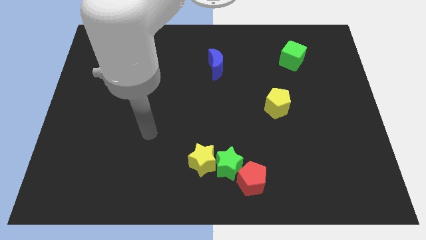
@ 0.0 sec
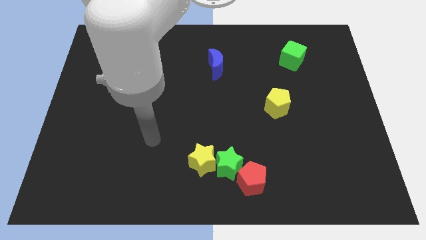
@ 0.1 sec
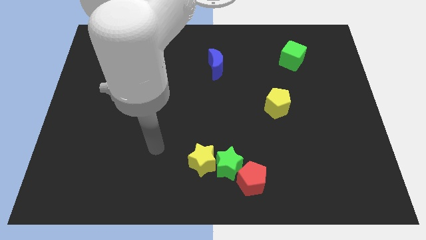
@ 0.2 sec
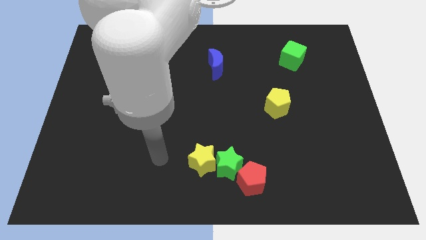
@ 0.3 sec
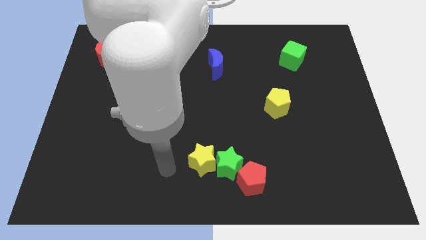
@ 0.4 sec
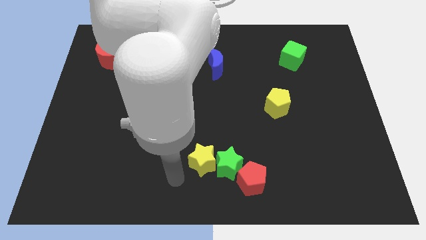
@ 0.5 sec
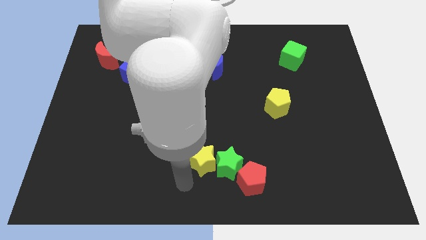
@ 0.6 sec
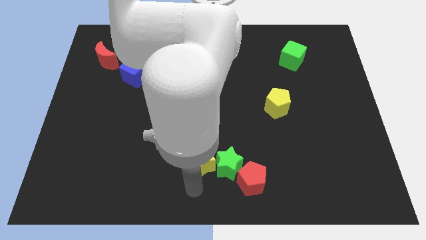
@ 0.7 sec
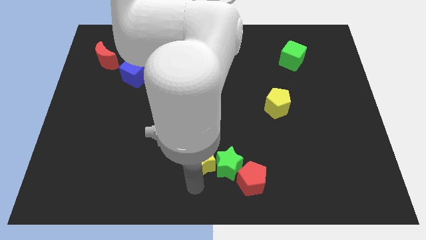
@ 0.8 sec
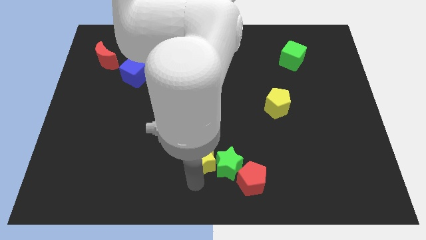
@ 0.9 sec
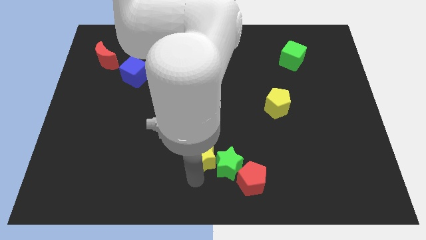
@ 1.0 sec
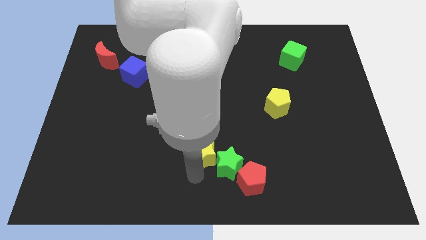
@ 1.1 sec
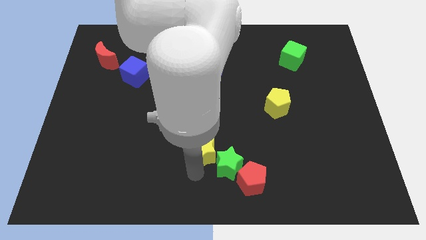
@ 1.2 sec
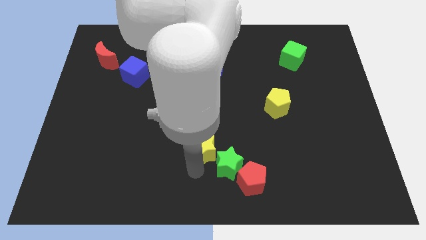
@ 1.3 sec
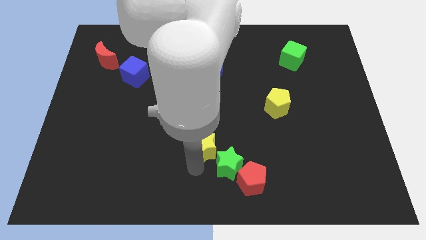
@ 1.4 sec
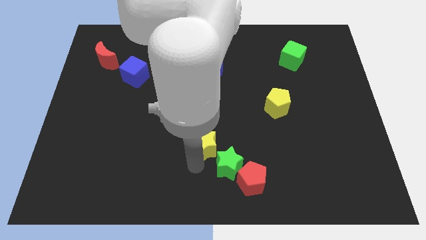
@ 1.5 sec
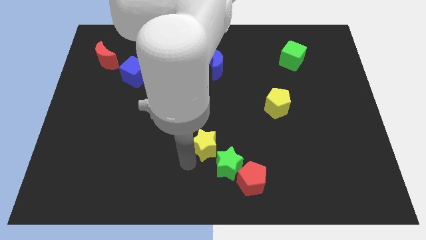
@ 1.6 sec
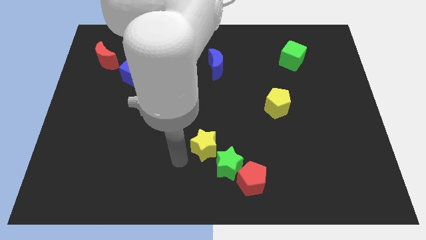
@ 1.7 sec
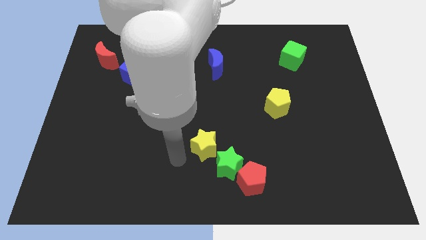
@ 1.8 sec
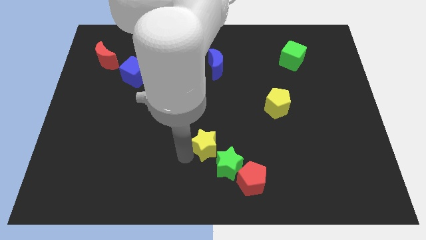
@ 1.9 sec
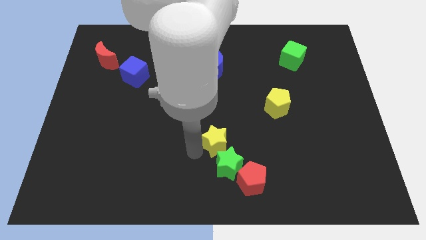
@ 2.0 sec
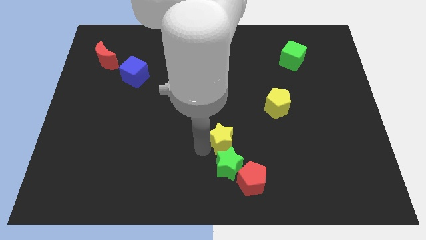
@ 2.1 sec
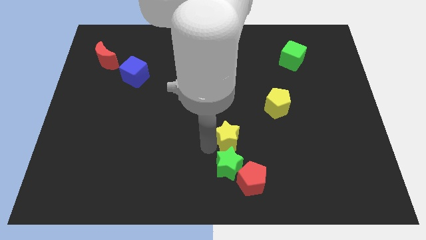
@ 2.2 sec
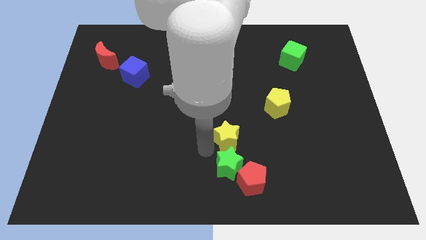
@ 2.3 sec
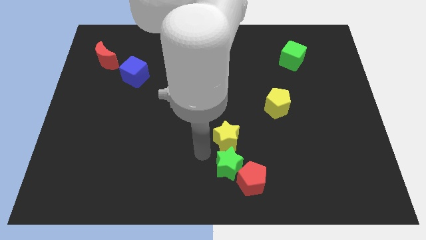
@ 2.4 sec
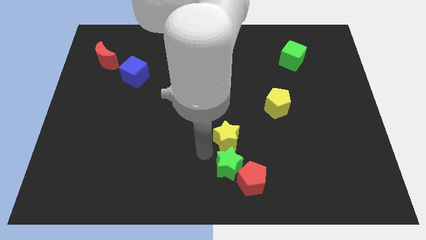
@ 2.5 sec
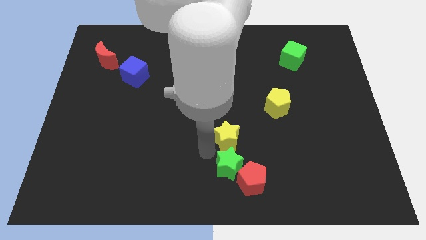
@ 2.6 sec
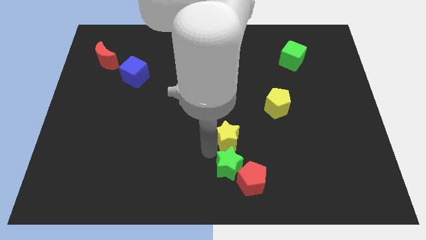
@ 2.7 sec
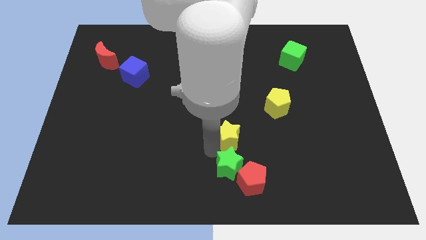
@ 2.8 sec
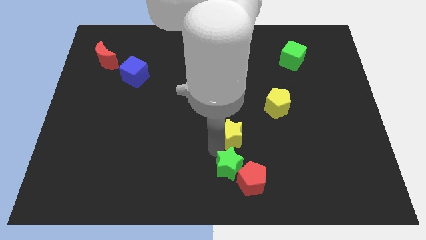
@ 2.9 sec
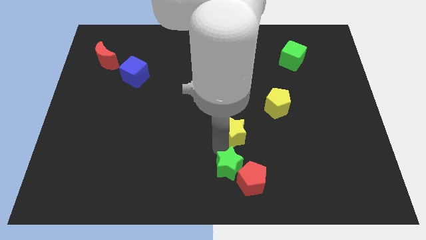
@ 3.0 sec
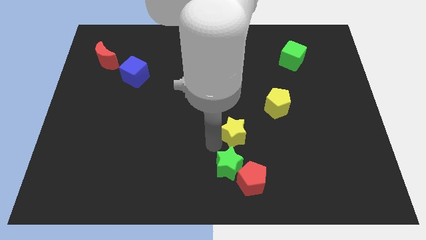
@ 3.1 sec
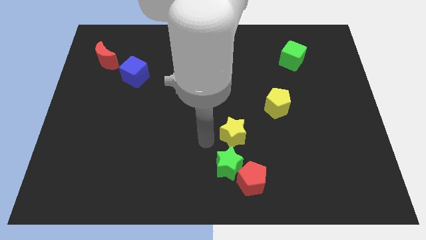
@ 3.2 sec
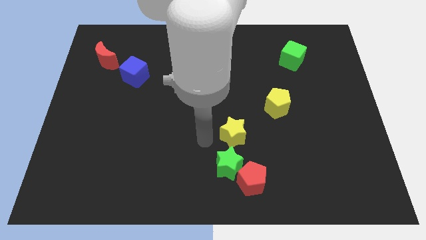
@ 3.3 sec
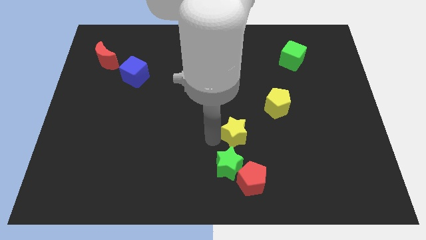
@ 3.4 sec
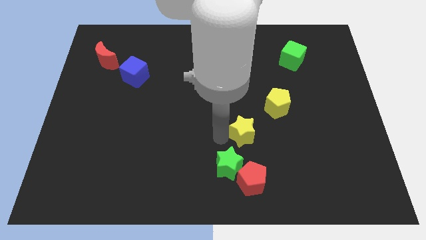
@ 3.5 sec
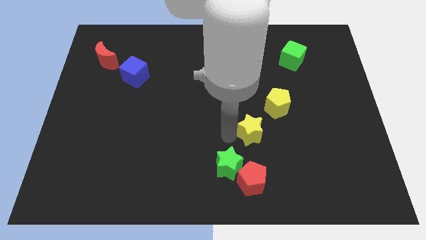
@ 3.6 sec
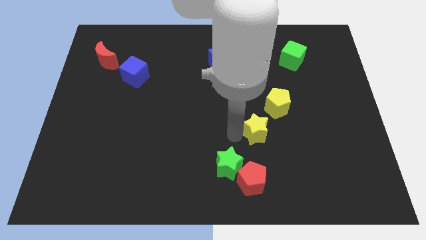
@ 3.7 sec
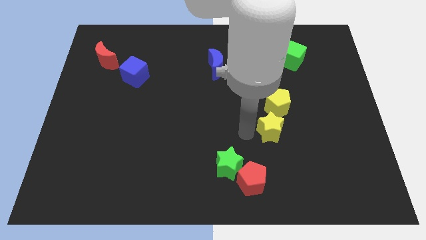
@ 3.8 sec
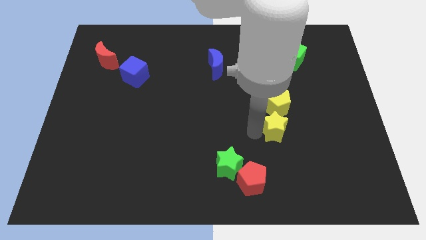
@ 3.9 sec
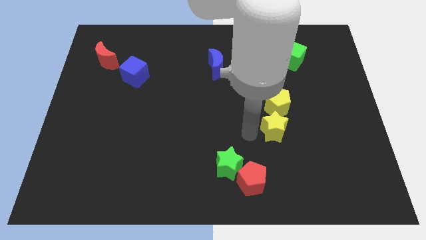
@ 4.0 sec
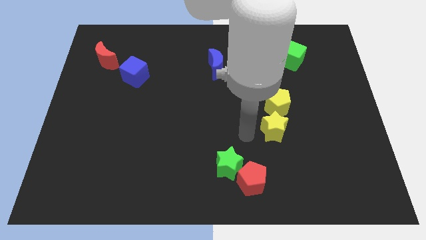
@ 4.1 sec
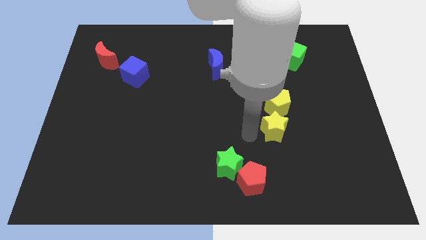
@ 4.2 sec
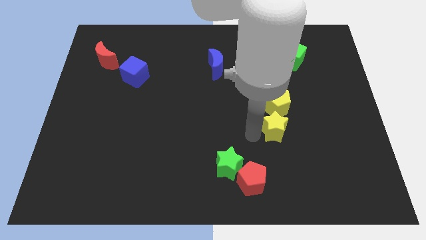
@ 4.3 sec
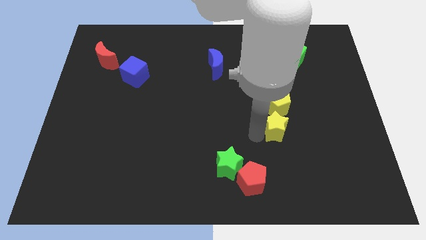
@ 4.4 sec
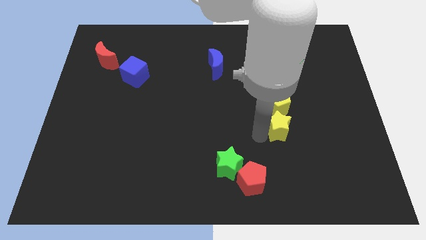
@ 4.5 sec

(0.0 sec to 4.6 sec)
move the yellow star to the bottom right of the yellow pentagon

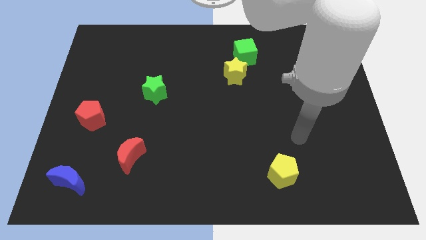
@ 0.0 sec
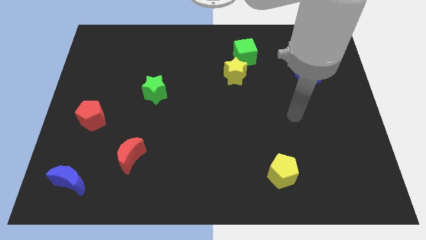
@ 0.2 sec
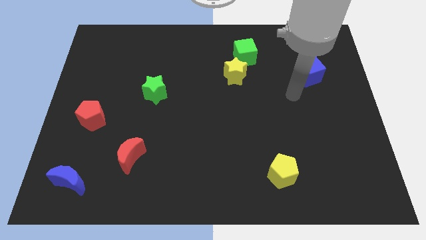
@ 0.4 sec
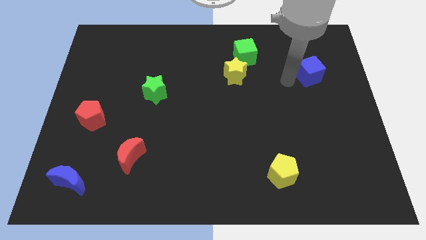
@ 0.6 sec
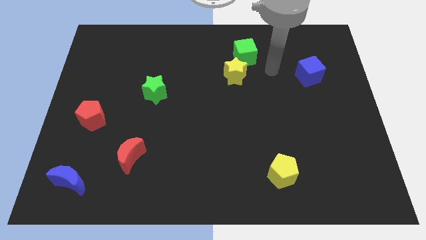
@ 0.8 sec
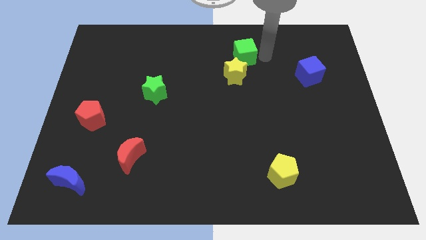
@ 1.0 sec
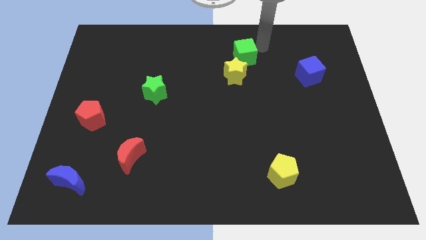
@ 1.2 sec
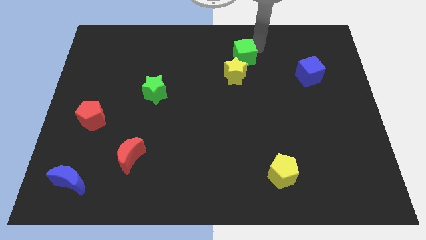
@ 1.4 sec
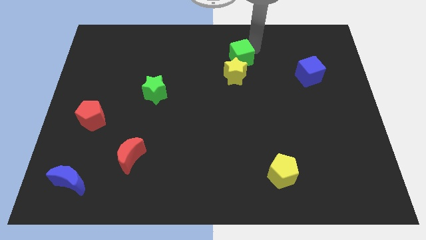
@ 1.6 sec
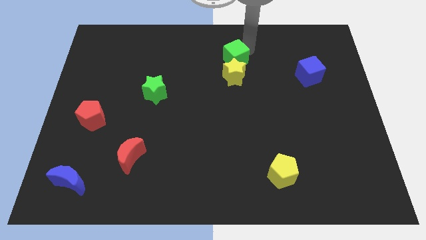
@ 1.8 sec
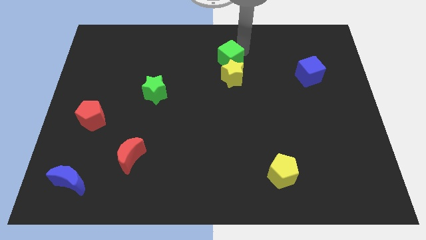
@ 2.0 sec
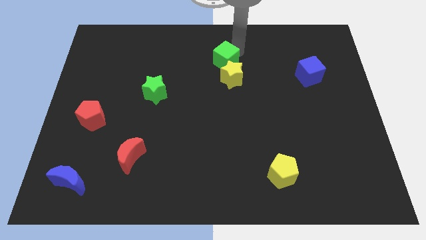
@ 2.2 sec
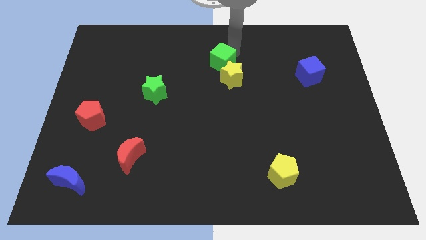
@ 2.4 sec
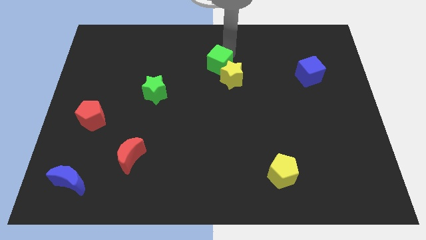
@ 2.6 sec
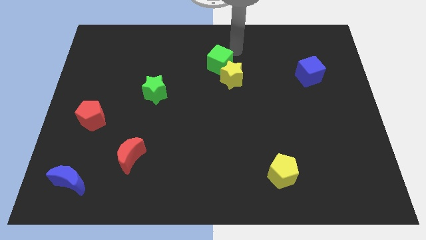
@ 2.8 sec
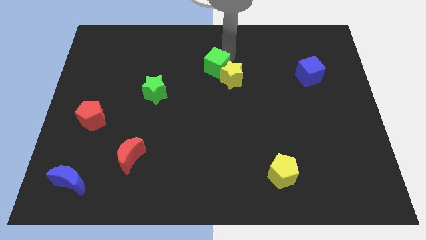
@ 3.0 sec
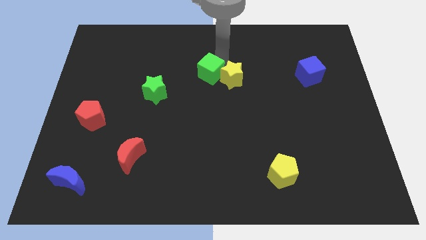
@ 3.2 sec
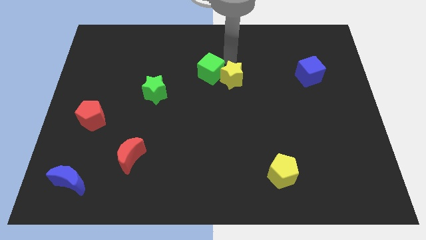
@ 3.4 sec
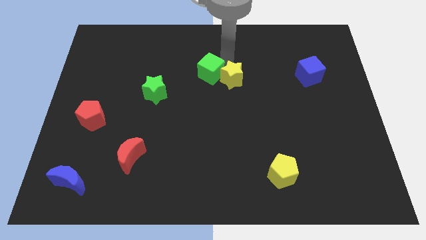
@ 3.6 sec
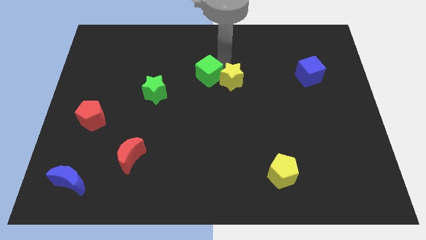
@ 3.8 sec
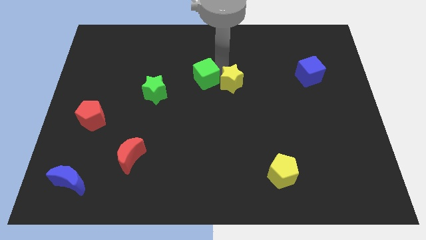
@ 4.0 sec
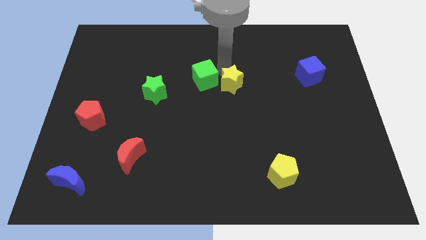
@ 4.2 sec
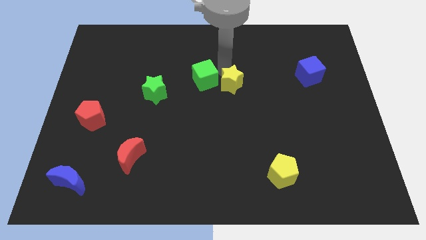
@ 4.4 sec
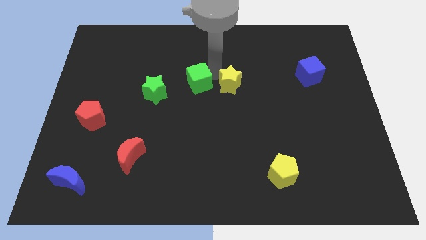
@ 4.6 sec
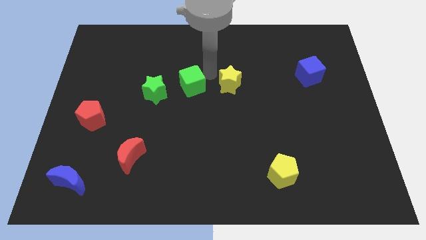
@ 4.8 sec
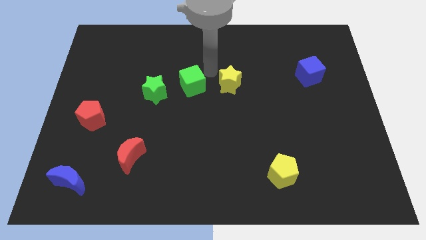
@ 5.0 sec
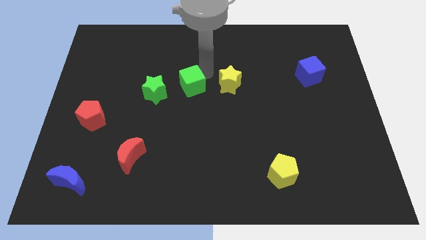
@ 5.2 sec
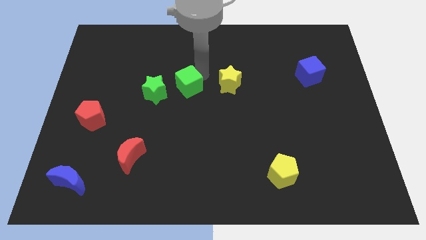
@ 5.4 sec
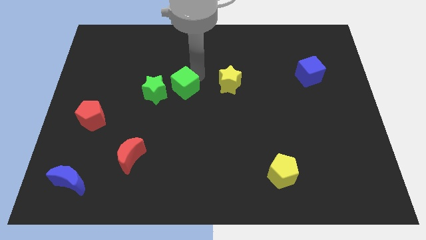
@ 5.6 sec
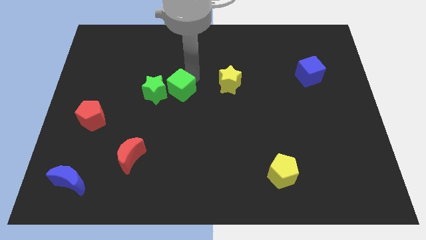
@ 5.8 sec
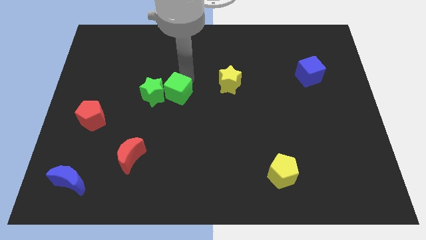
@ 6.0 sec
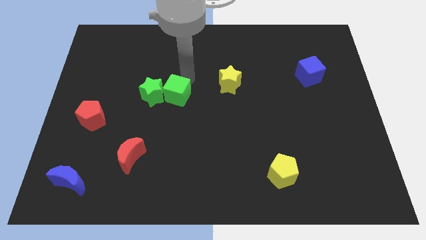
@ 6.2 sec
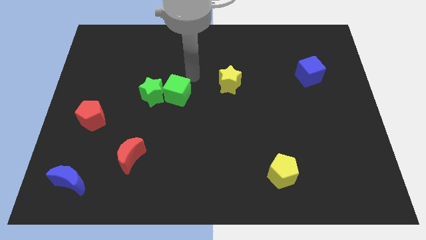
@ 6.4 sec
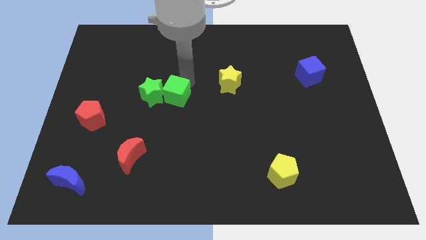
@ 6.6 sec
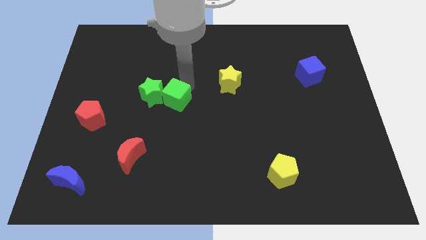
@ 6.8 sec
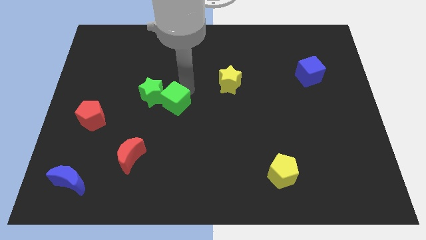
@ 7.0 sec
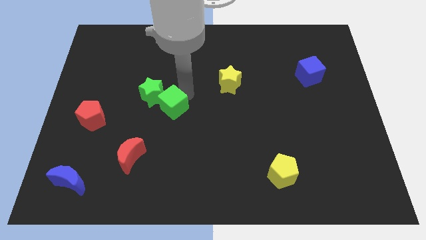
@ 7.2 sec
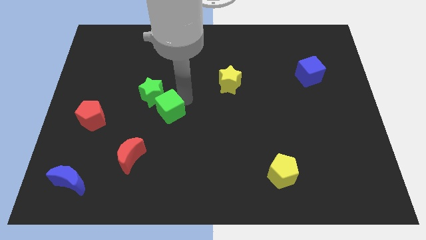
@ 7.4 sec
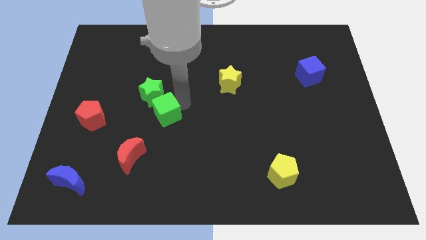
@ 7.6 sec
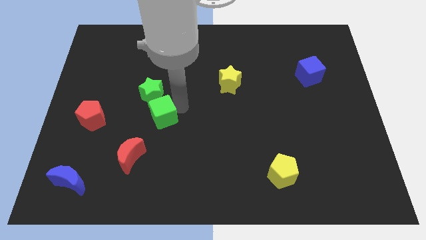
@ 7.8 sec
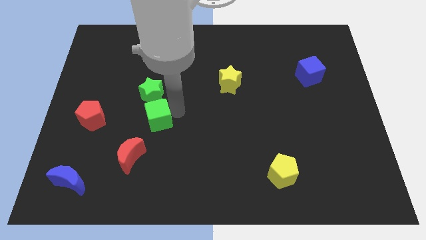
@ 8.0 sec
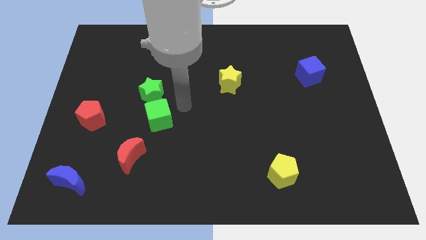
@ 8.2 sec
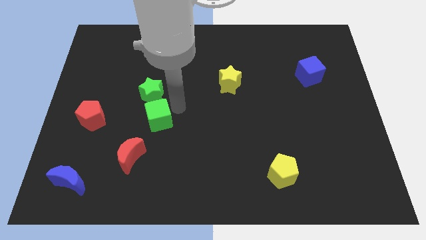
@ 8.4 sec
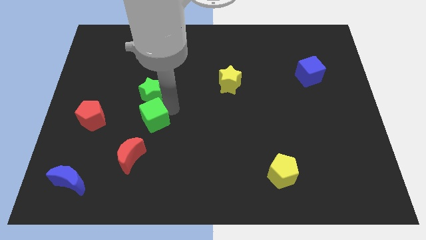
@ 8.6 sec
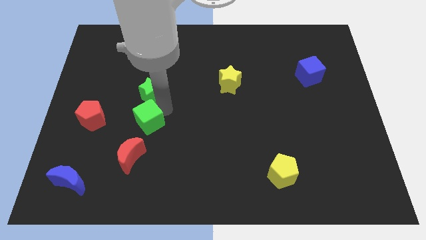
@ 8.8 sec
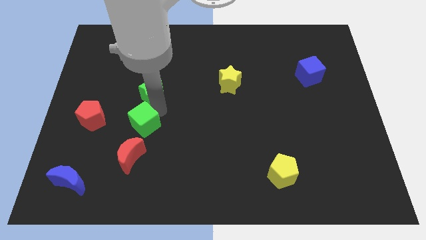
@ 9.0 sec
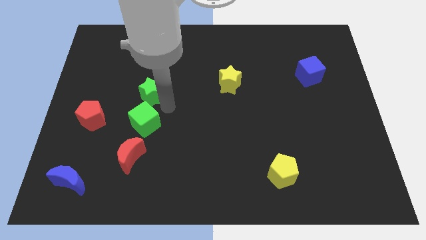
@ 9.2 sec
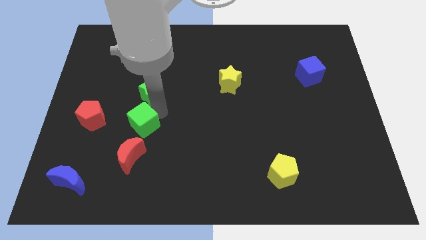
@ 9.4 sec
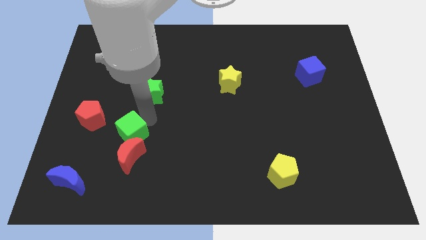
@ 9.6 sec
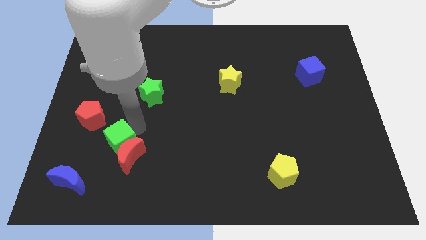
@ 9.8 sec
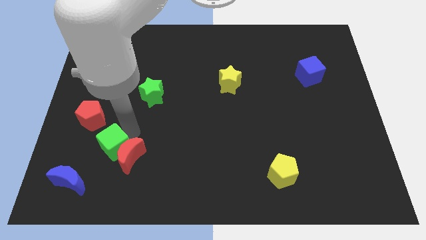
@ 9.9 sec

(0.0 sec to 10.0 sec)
put the green cube to the top right of the blue moon
